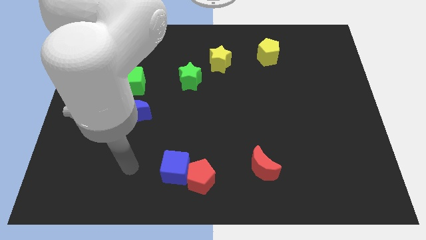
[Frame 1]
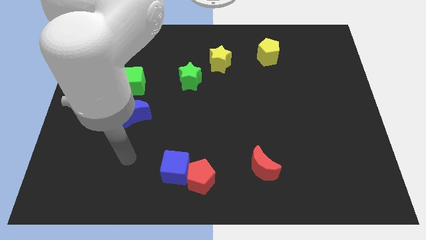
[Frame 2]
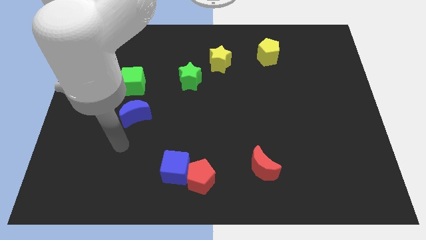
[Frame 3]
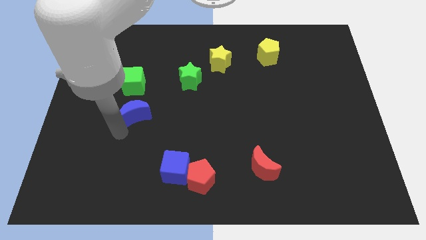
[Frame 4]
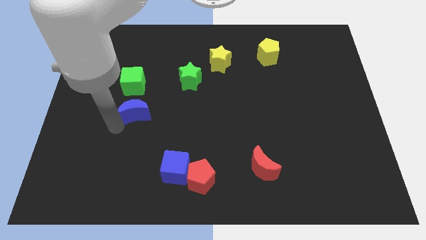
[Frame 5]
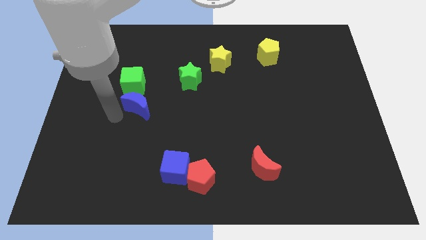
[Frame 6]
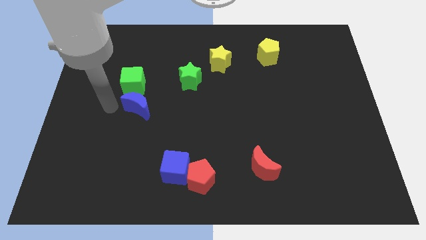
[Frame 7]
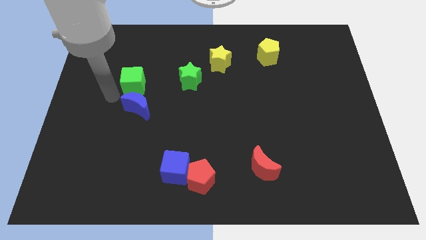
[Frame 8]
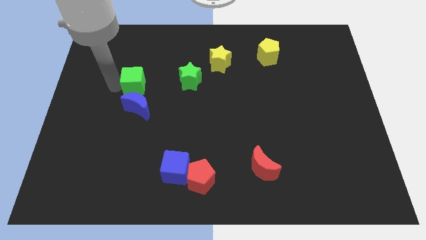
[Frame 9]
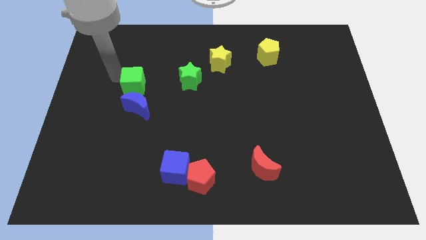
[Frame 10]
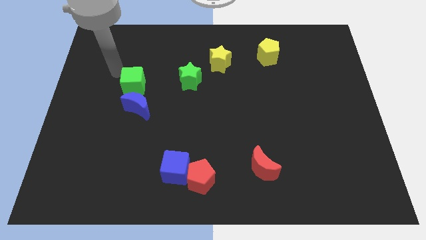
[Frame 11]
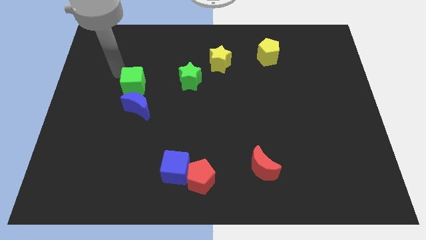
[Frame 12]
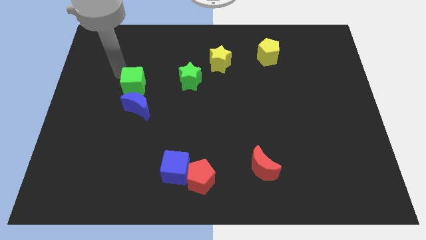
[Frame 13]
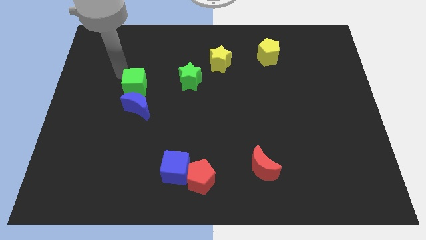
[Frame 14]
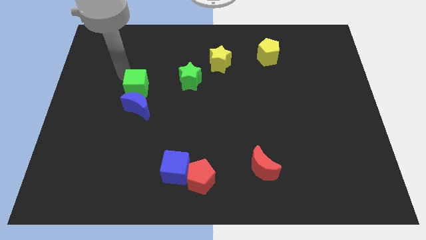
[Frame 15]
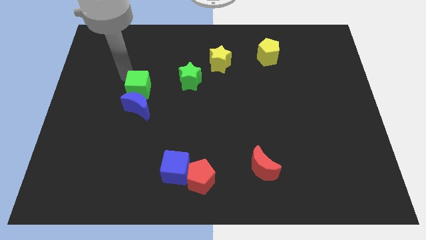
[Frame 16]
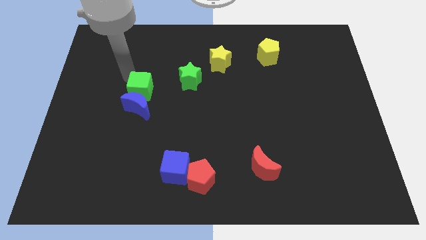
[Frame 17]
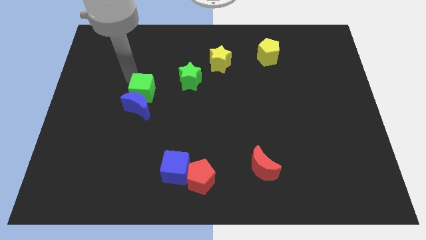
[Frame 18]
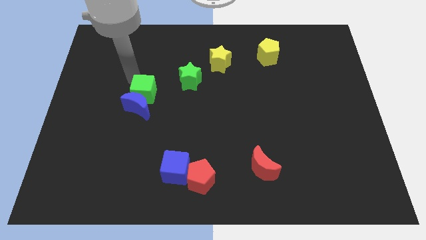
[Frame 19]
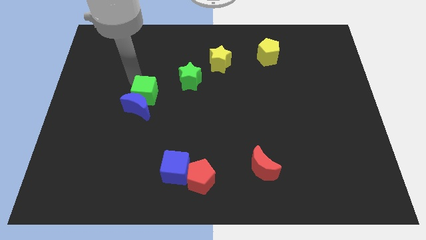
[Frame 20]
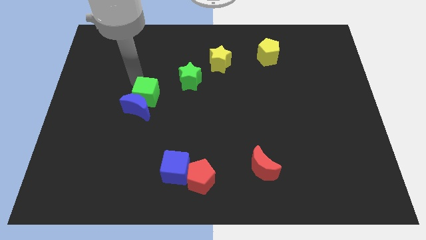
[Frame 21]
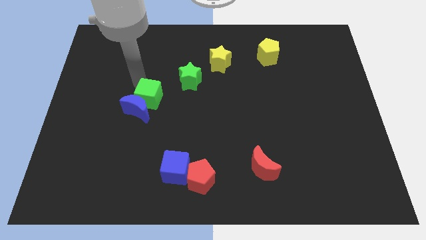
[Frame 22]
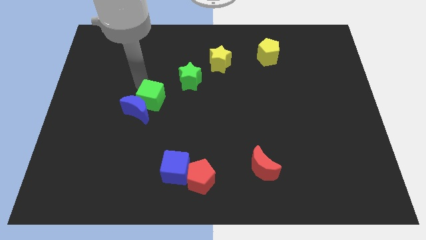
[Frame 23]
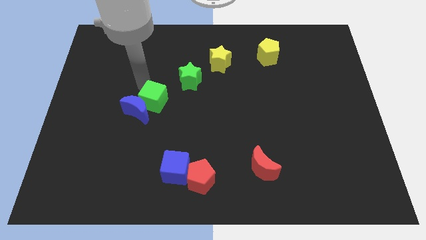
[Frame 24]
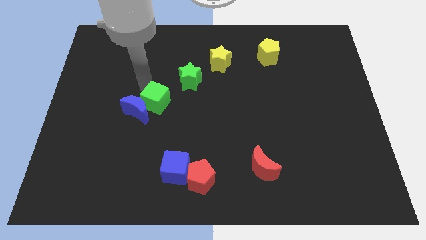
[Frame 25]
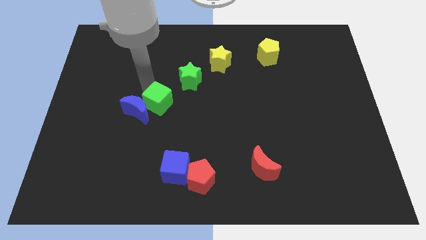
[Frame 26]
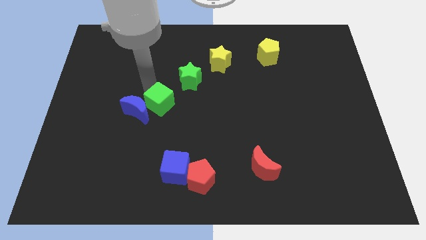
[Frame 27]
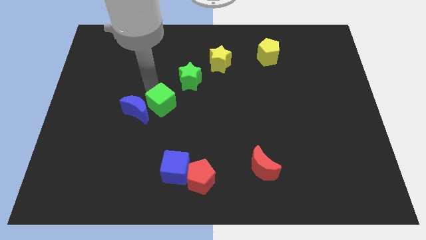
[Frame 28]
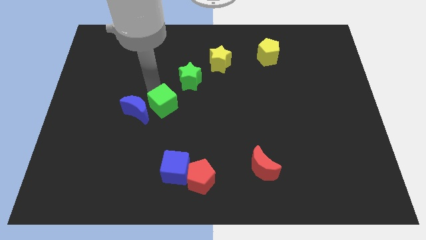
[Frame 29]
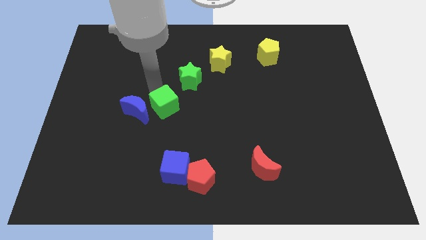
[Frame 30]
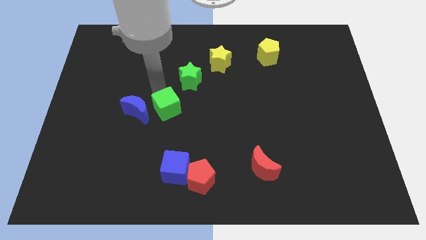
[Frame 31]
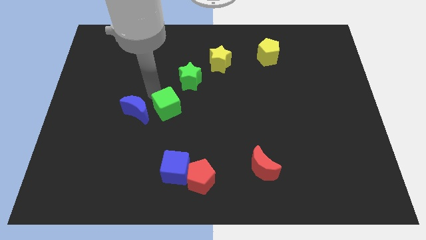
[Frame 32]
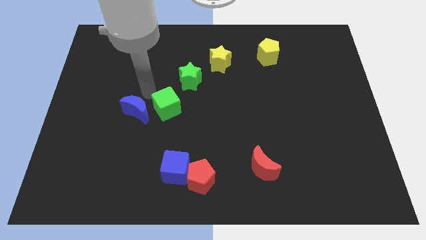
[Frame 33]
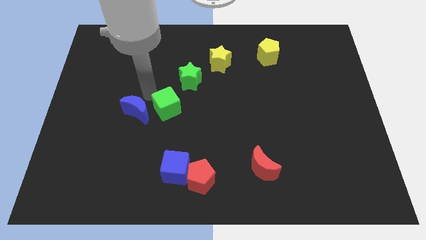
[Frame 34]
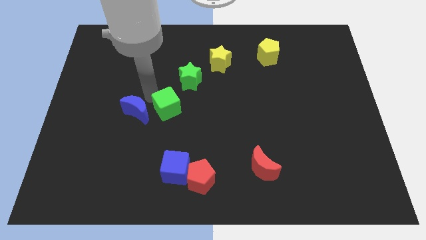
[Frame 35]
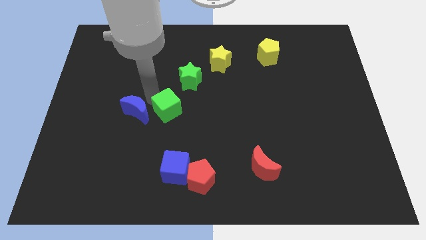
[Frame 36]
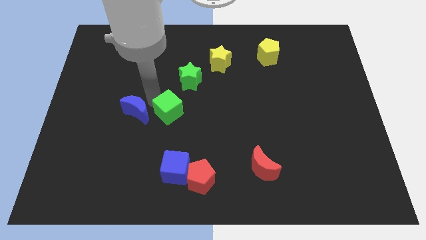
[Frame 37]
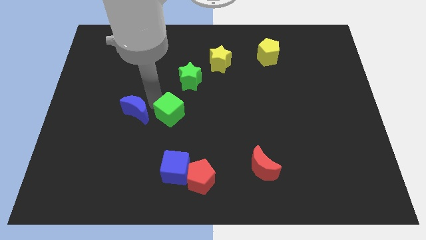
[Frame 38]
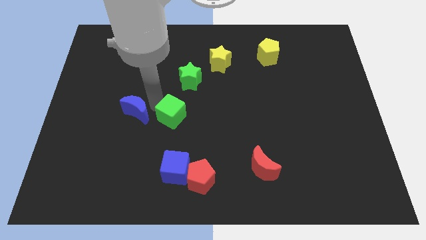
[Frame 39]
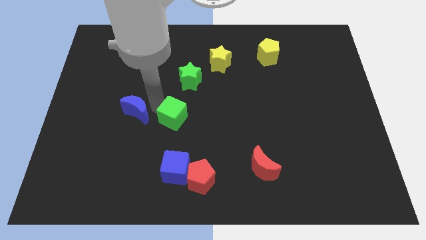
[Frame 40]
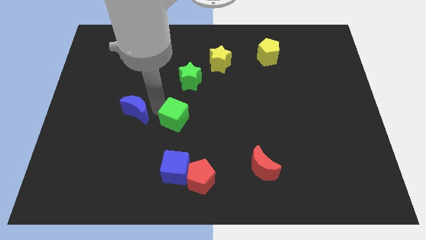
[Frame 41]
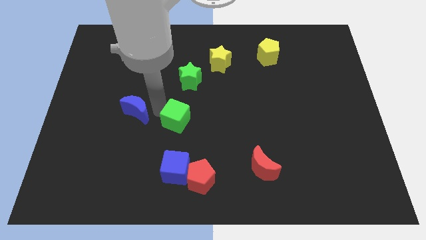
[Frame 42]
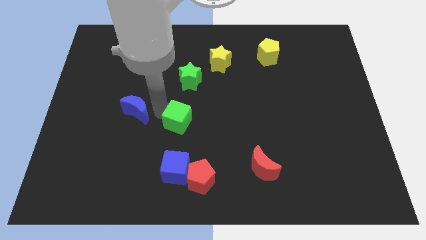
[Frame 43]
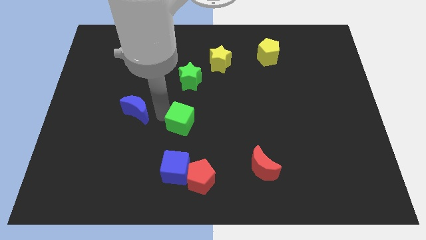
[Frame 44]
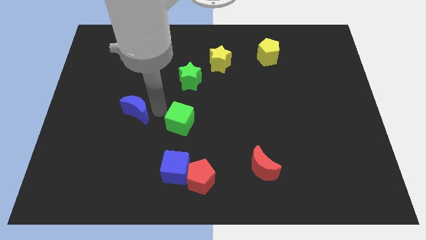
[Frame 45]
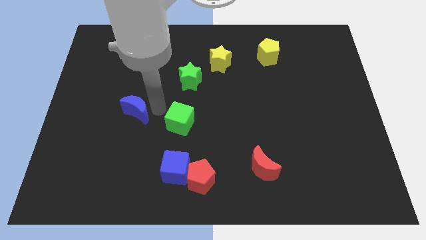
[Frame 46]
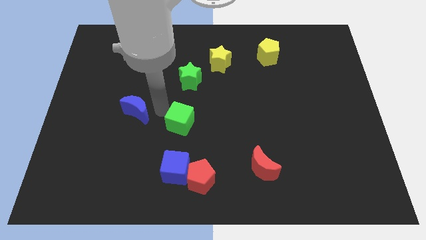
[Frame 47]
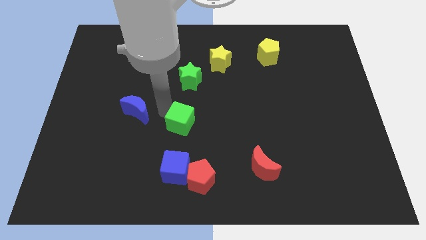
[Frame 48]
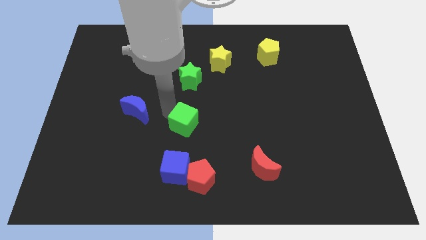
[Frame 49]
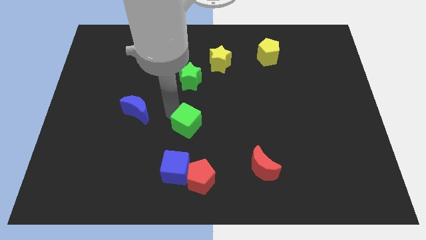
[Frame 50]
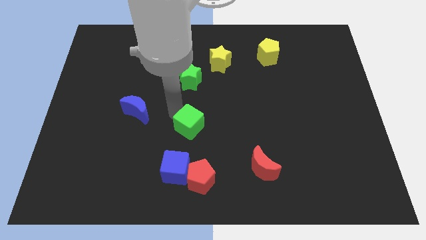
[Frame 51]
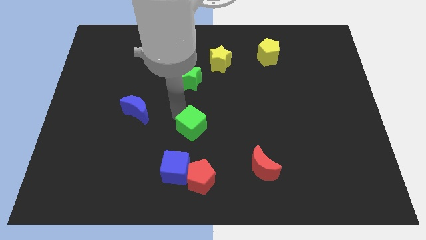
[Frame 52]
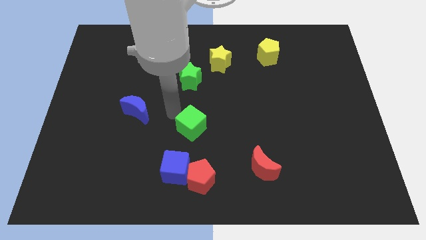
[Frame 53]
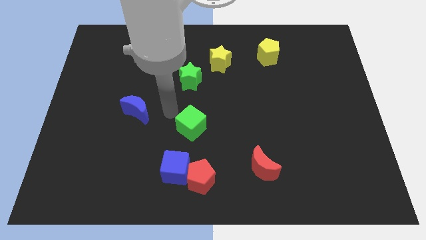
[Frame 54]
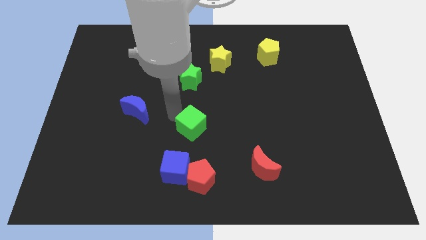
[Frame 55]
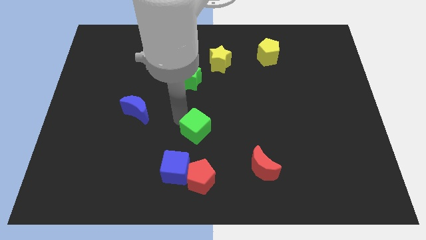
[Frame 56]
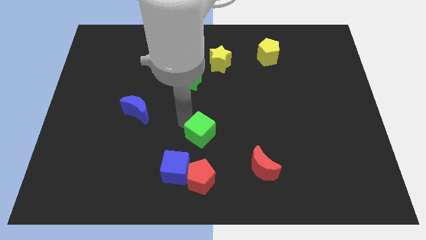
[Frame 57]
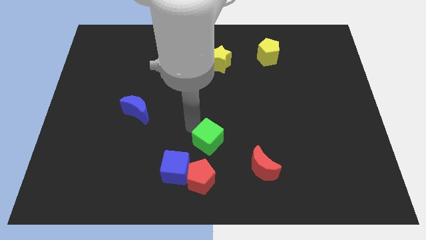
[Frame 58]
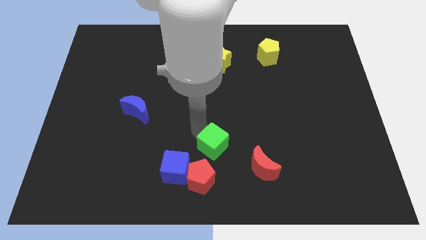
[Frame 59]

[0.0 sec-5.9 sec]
move the green cube diagonally up and to the right of the red pentagon

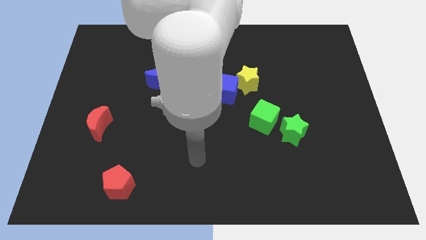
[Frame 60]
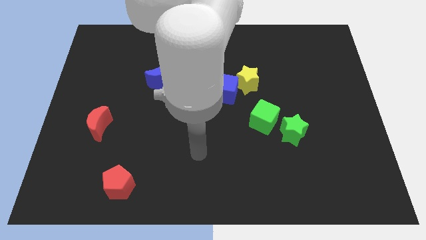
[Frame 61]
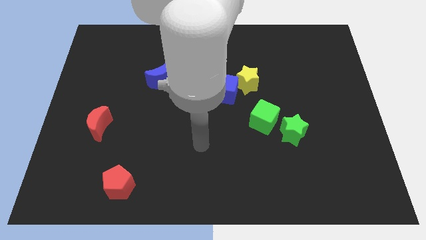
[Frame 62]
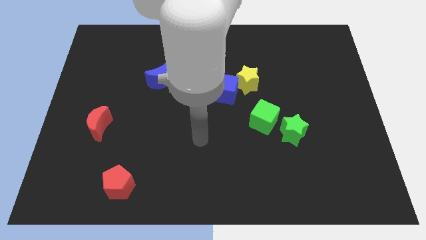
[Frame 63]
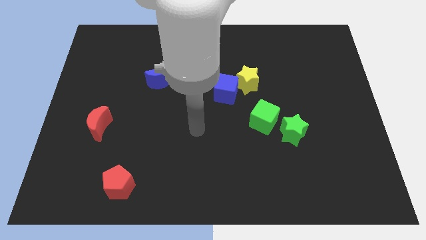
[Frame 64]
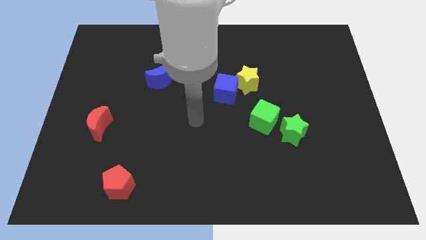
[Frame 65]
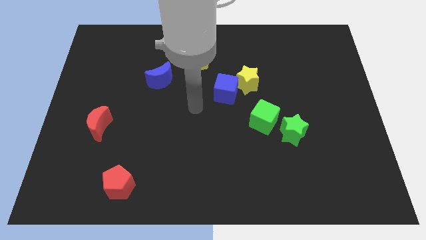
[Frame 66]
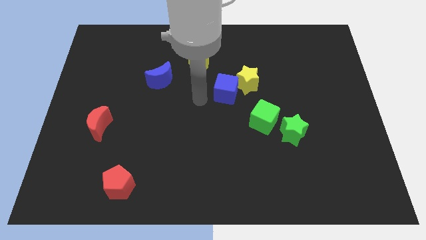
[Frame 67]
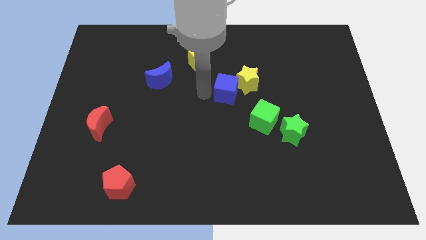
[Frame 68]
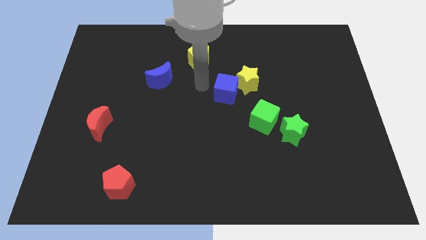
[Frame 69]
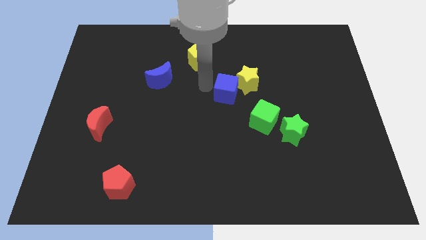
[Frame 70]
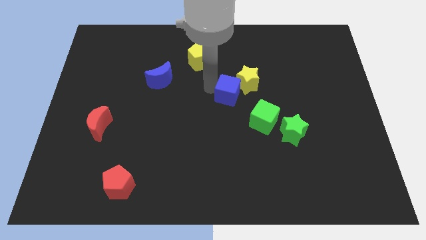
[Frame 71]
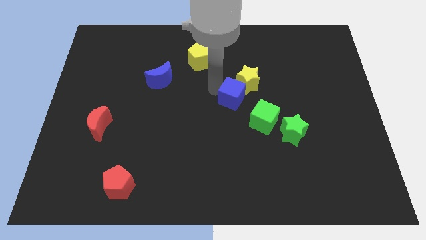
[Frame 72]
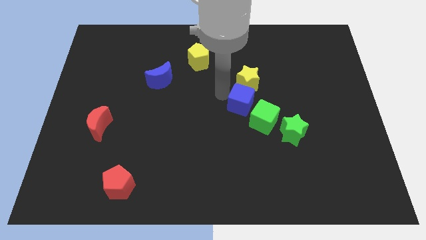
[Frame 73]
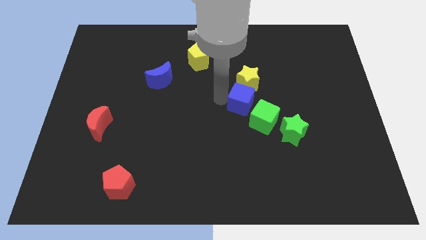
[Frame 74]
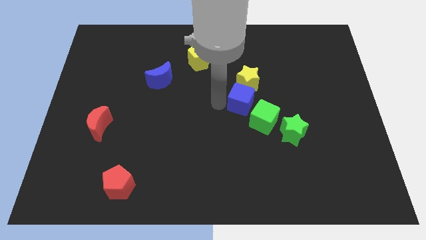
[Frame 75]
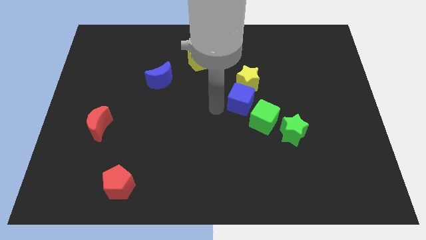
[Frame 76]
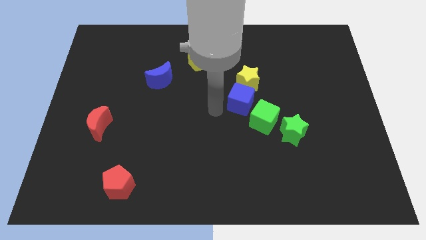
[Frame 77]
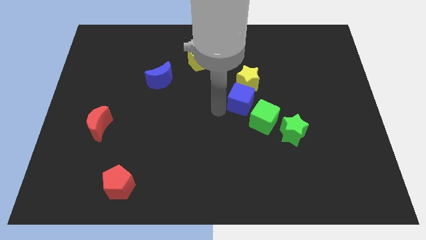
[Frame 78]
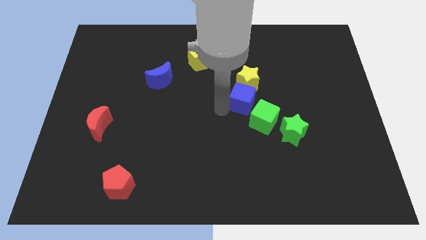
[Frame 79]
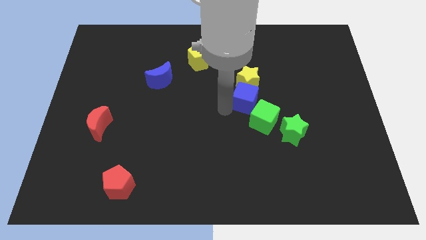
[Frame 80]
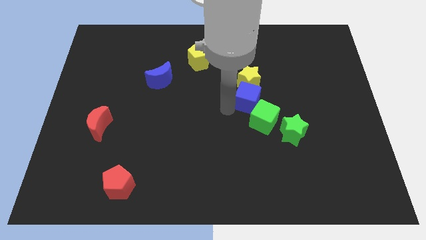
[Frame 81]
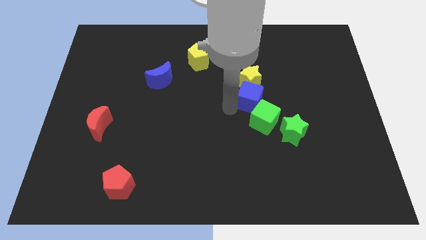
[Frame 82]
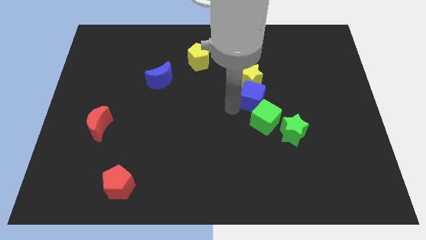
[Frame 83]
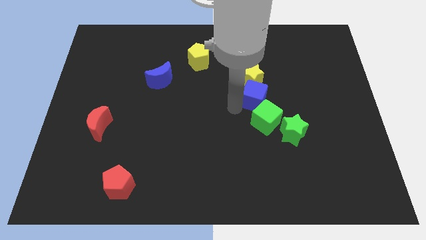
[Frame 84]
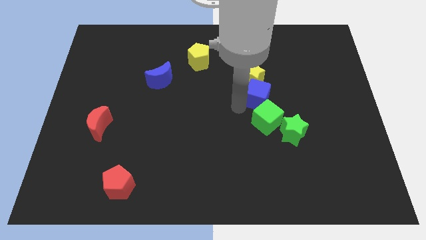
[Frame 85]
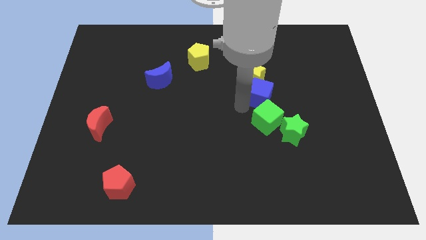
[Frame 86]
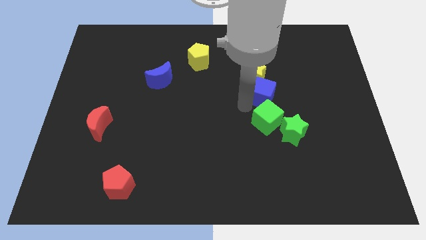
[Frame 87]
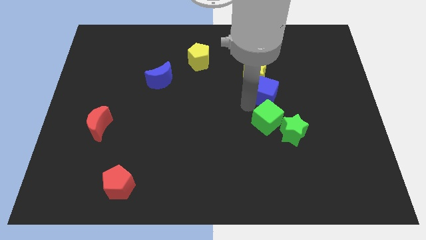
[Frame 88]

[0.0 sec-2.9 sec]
put the blue cube to the top side of the green star
